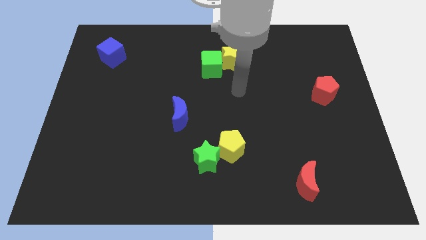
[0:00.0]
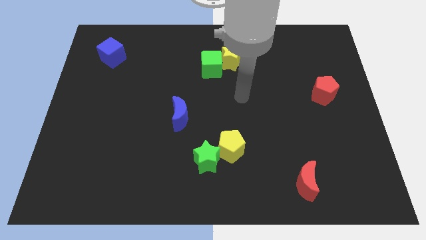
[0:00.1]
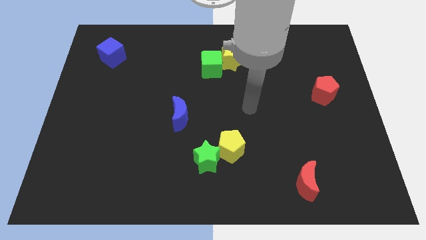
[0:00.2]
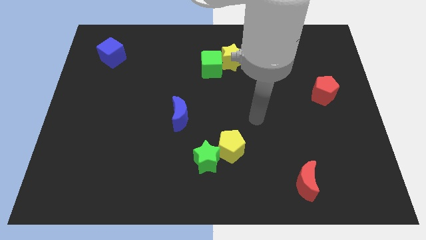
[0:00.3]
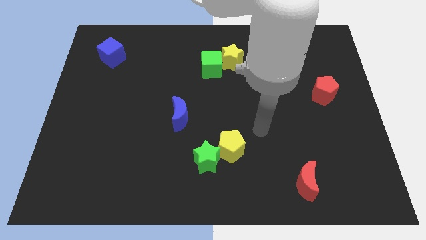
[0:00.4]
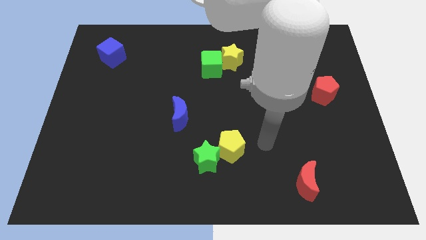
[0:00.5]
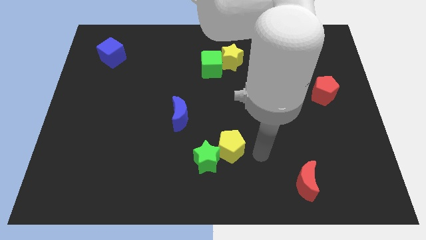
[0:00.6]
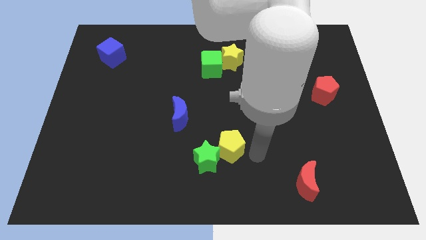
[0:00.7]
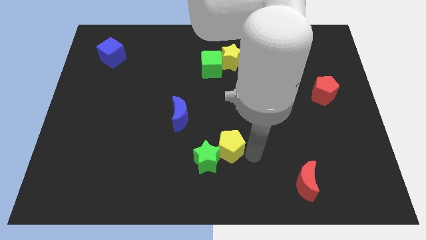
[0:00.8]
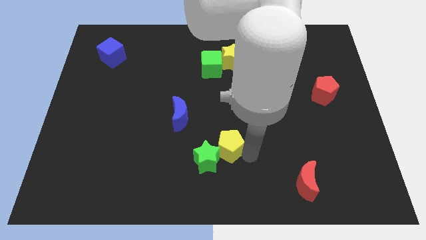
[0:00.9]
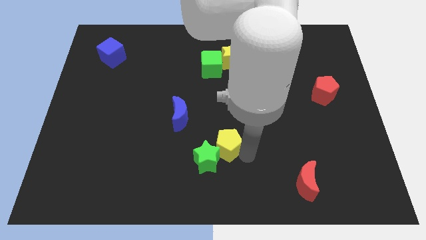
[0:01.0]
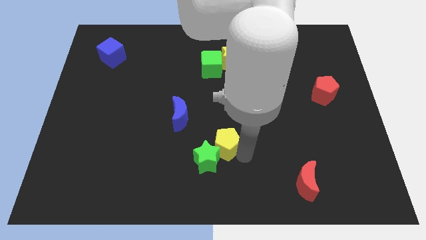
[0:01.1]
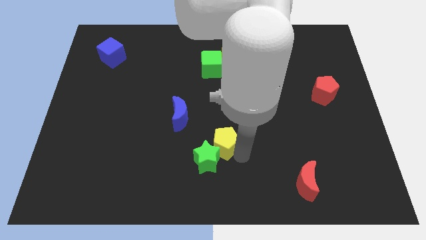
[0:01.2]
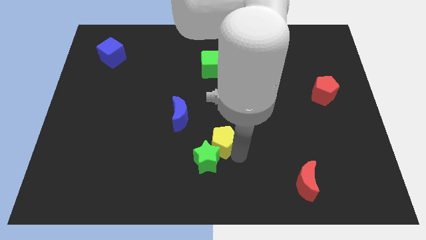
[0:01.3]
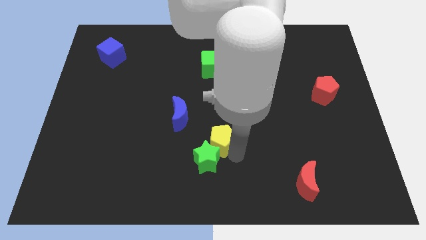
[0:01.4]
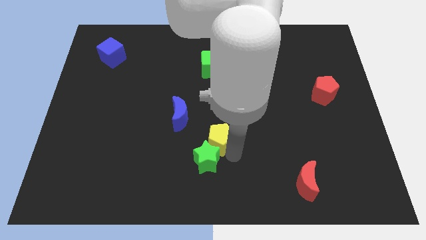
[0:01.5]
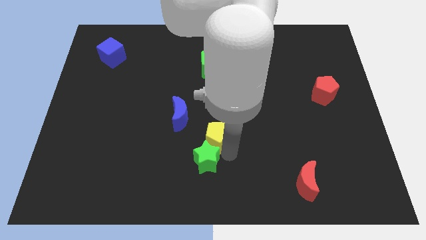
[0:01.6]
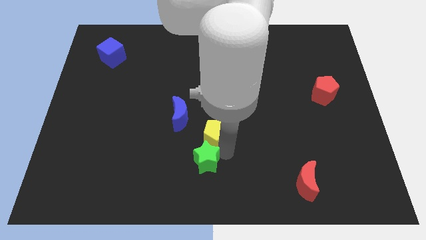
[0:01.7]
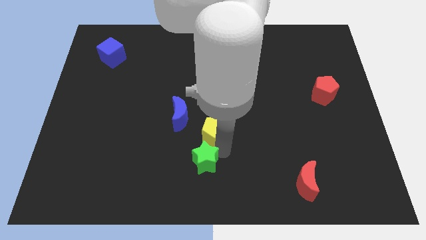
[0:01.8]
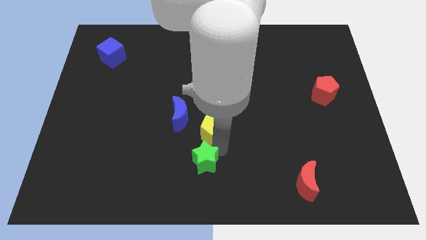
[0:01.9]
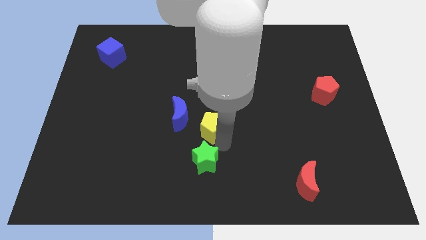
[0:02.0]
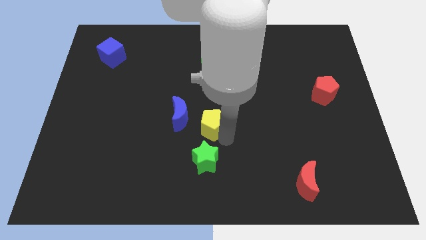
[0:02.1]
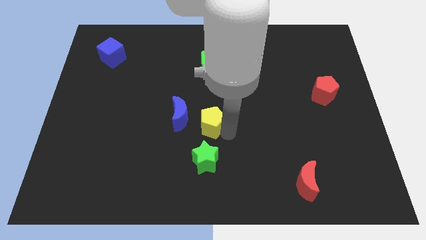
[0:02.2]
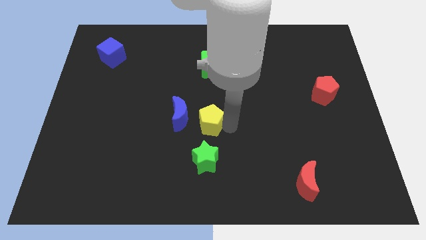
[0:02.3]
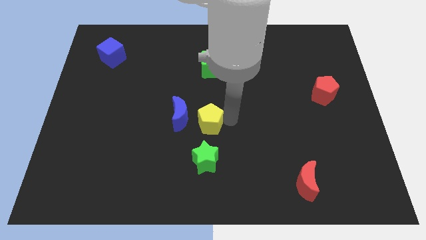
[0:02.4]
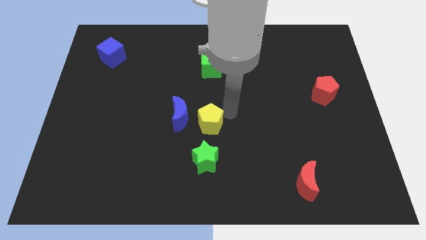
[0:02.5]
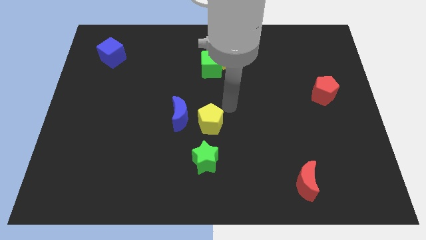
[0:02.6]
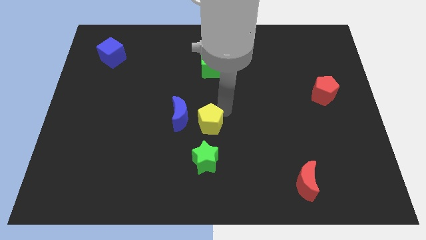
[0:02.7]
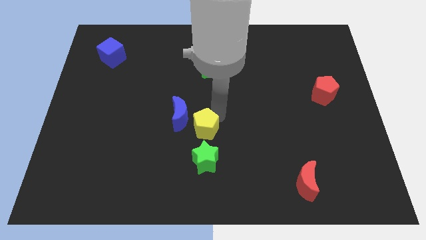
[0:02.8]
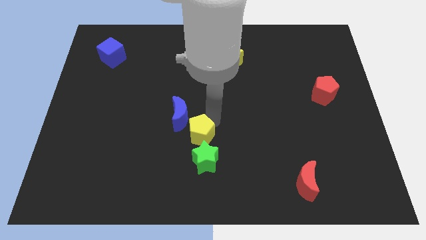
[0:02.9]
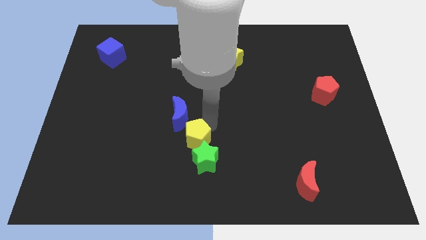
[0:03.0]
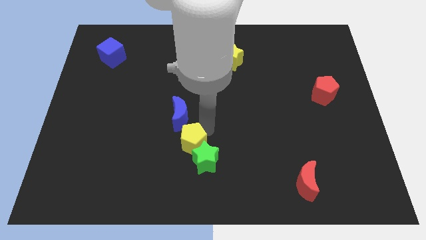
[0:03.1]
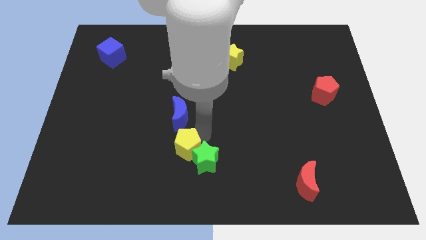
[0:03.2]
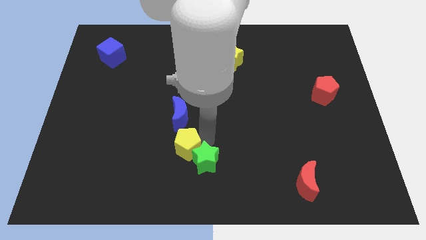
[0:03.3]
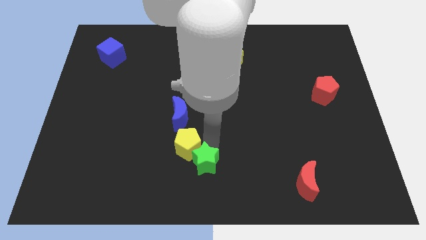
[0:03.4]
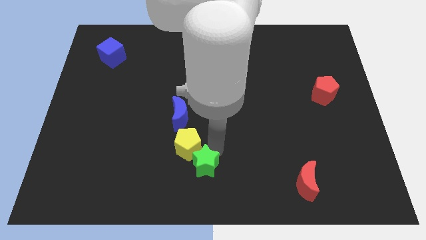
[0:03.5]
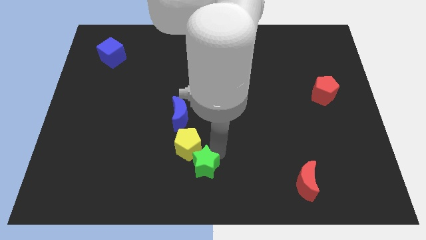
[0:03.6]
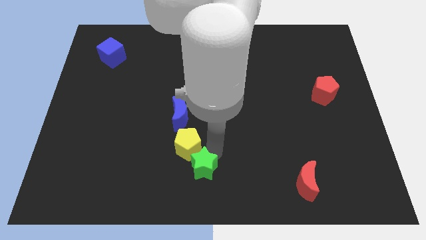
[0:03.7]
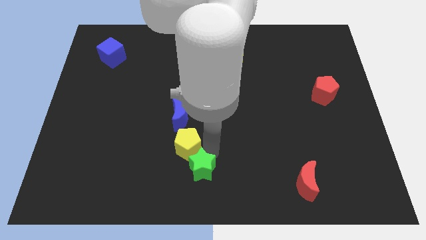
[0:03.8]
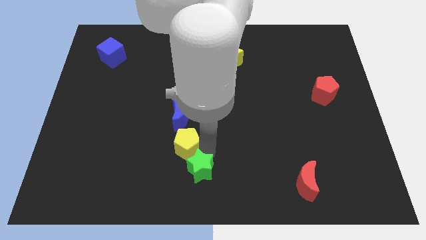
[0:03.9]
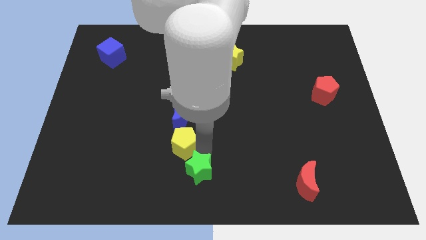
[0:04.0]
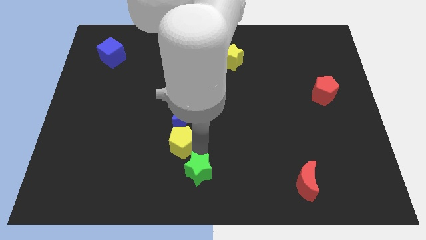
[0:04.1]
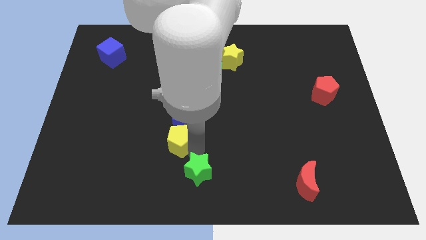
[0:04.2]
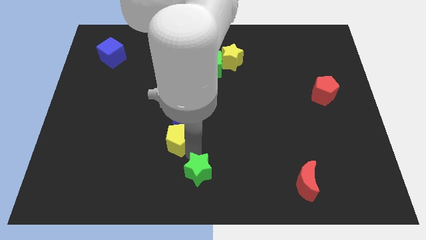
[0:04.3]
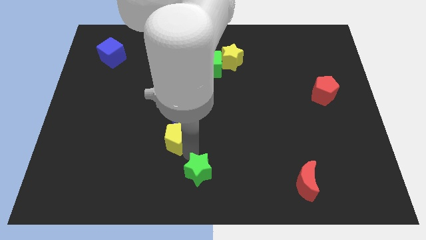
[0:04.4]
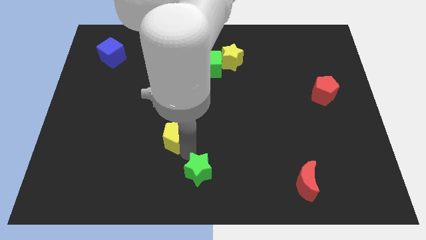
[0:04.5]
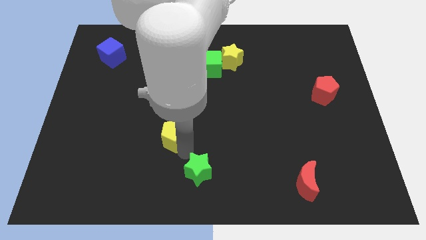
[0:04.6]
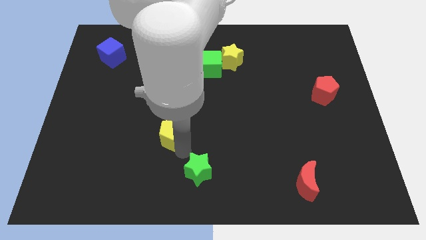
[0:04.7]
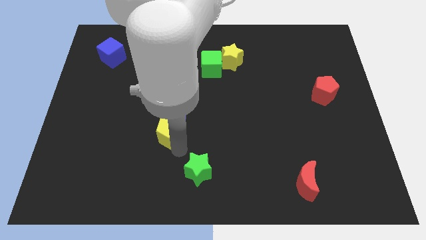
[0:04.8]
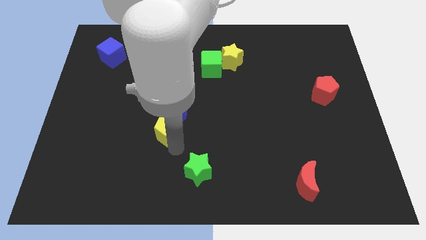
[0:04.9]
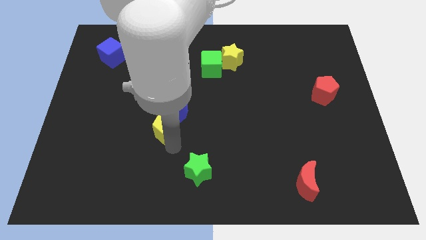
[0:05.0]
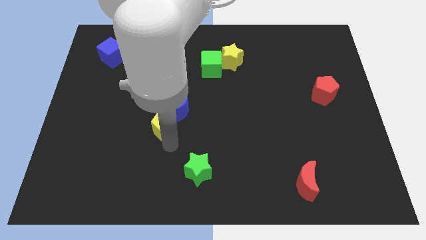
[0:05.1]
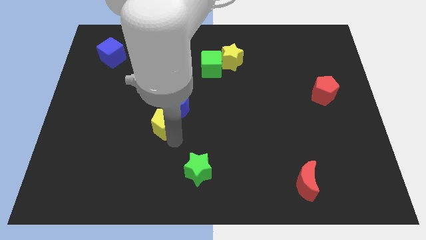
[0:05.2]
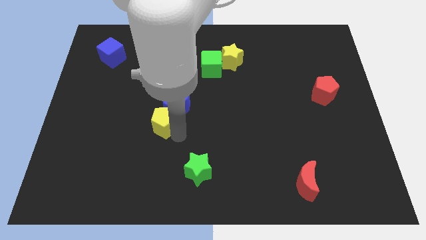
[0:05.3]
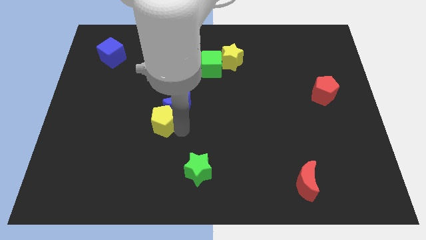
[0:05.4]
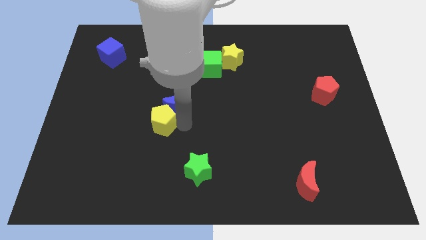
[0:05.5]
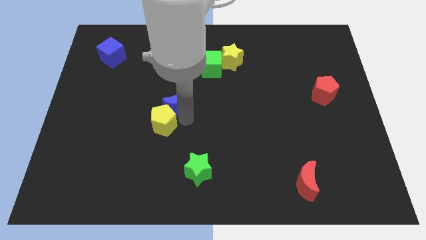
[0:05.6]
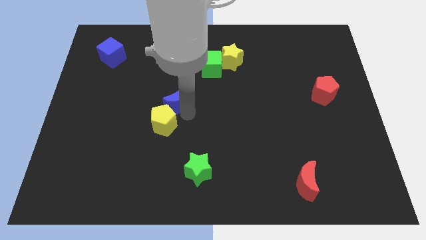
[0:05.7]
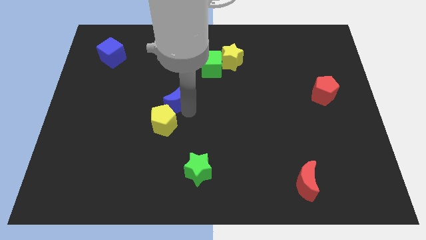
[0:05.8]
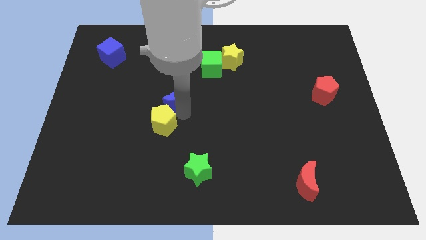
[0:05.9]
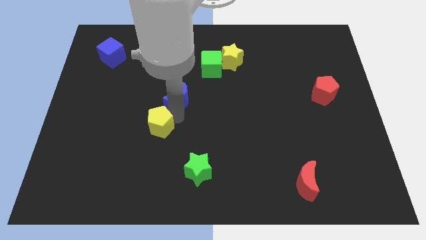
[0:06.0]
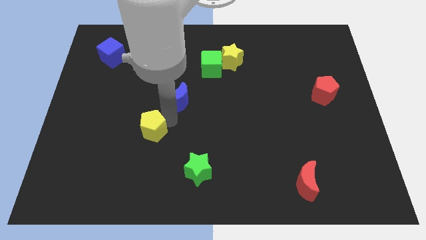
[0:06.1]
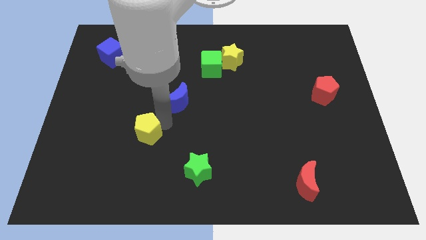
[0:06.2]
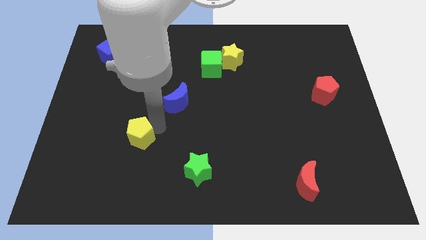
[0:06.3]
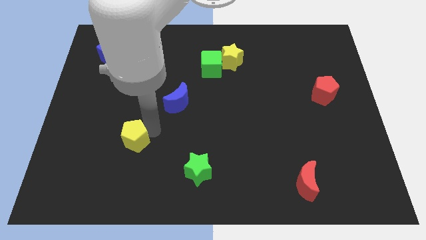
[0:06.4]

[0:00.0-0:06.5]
push the yellow pentagon left

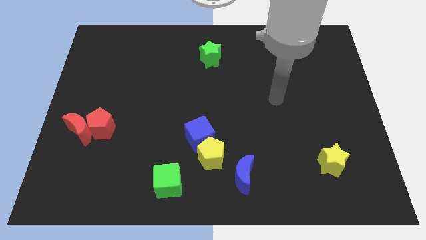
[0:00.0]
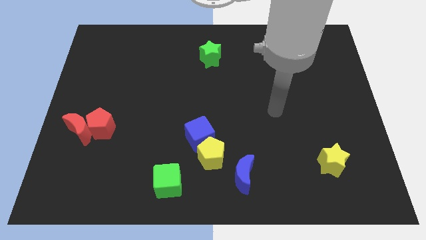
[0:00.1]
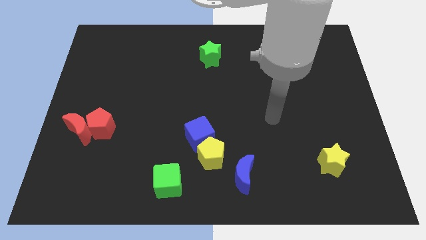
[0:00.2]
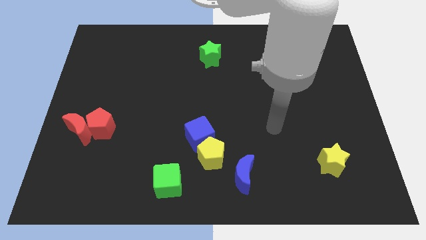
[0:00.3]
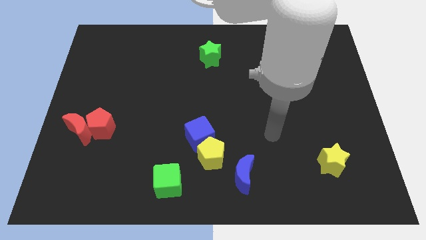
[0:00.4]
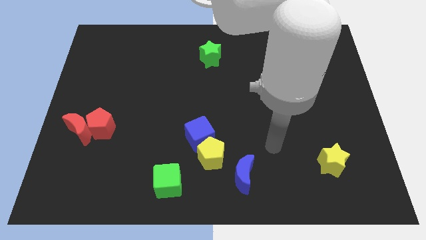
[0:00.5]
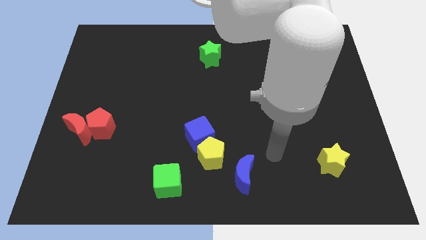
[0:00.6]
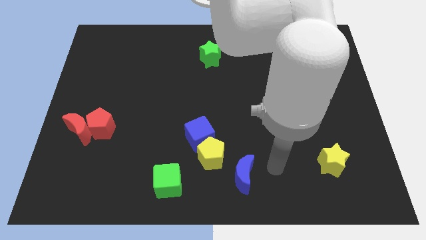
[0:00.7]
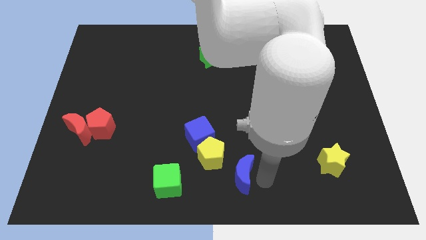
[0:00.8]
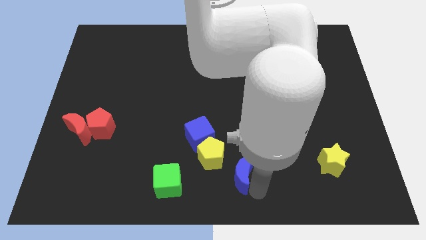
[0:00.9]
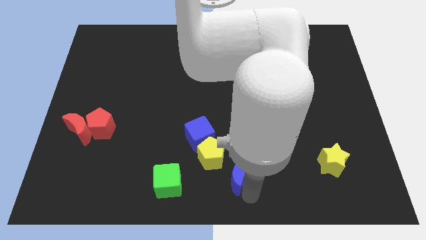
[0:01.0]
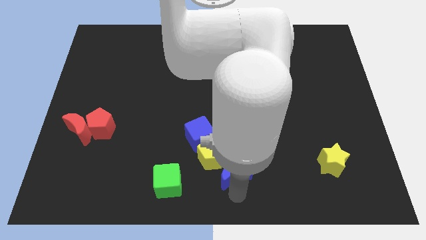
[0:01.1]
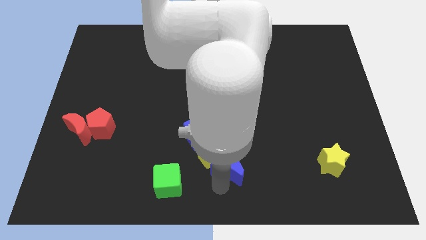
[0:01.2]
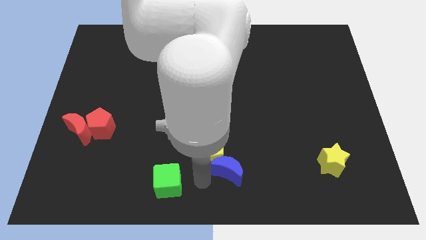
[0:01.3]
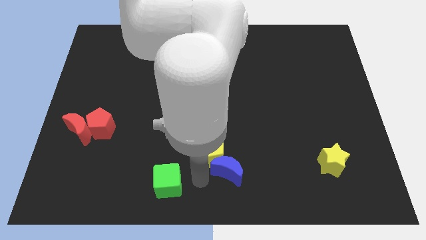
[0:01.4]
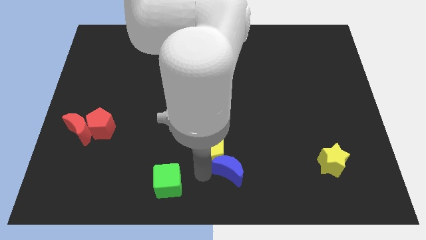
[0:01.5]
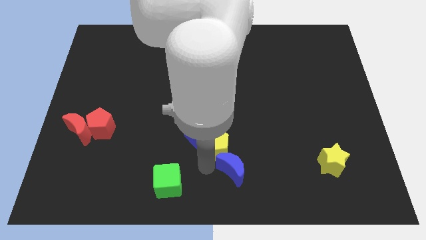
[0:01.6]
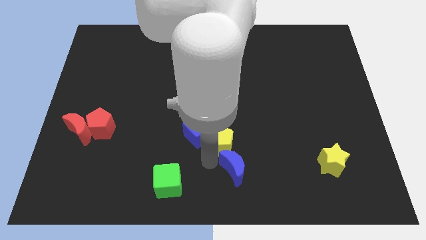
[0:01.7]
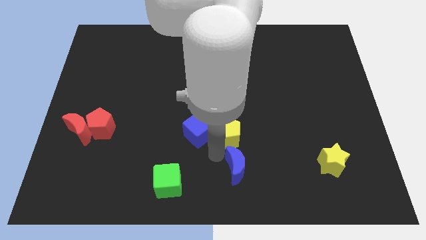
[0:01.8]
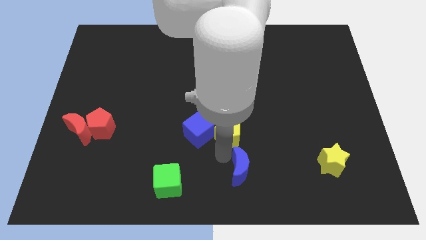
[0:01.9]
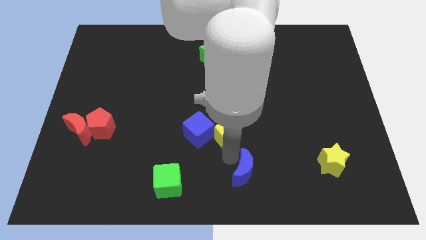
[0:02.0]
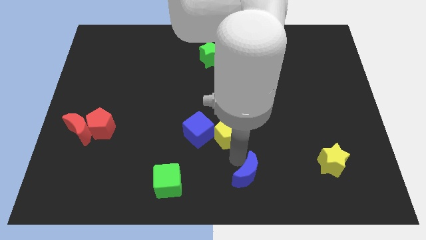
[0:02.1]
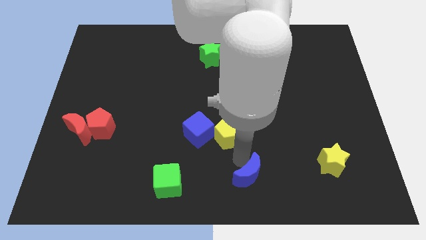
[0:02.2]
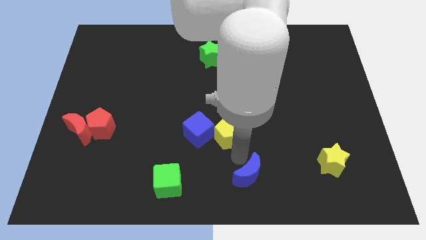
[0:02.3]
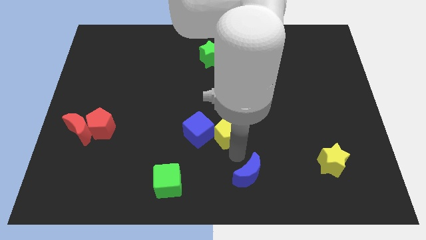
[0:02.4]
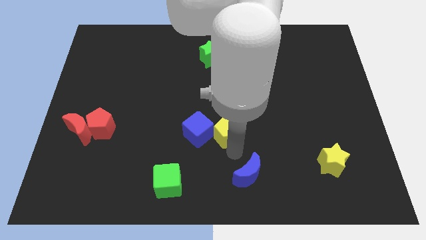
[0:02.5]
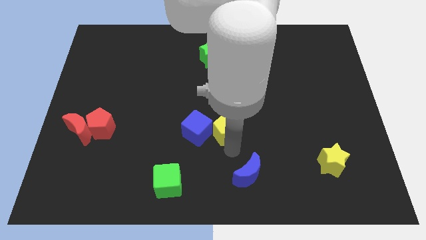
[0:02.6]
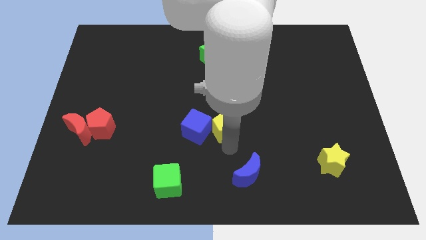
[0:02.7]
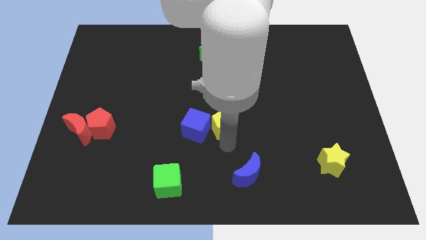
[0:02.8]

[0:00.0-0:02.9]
slightly push the yellow pentagon upwards
